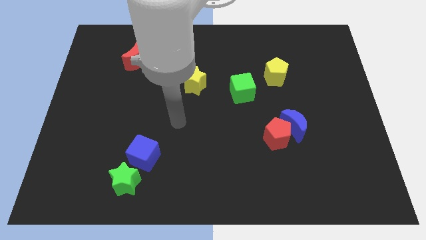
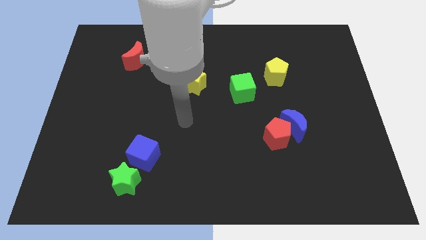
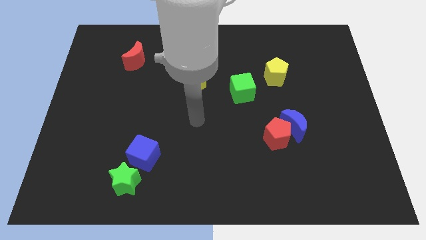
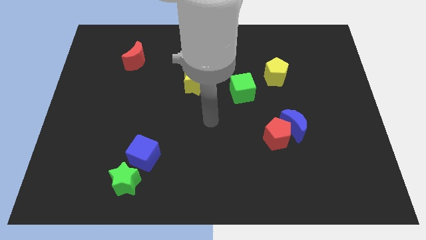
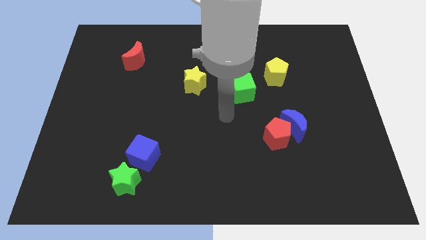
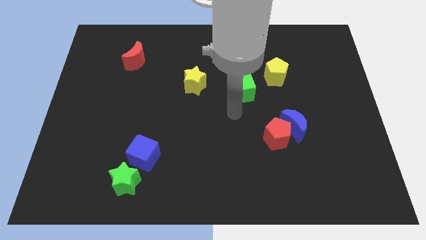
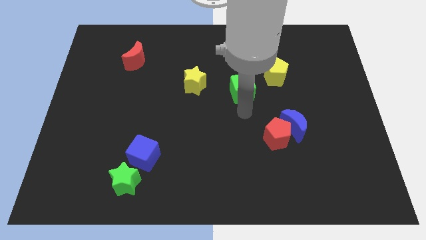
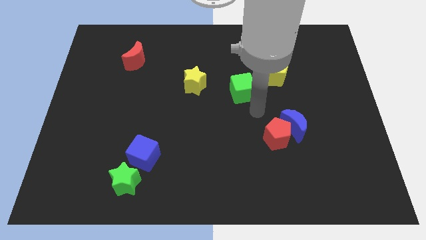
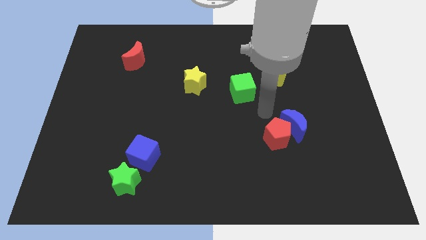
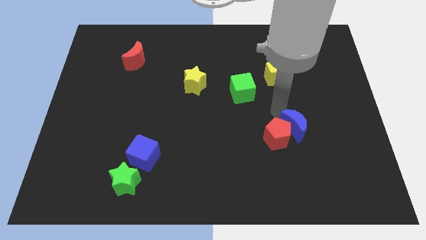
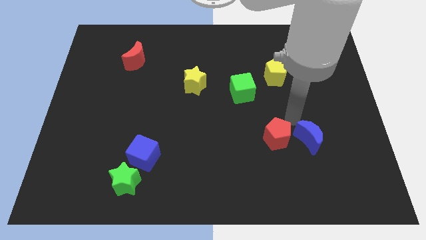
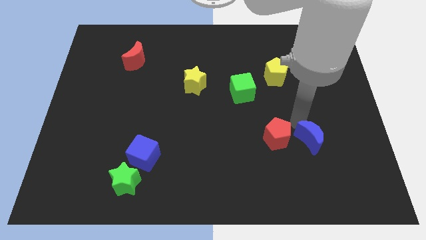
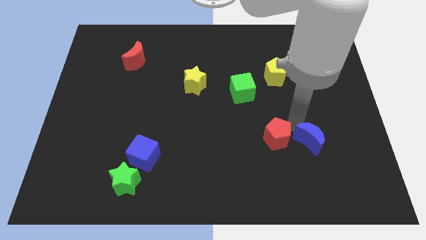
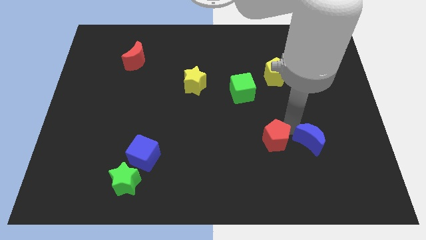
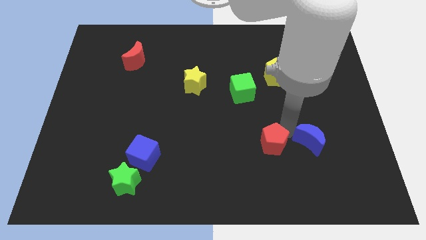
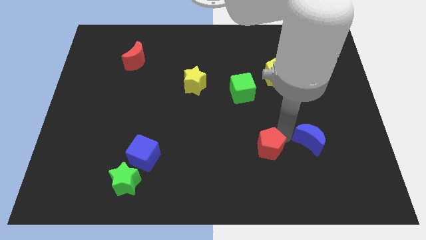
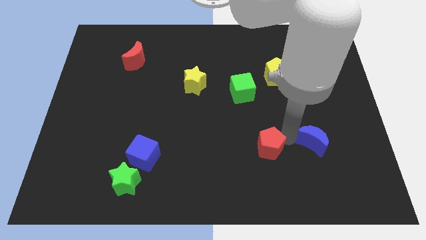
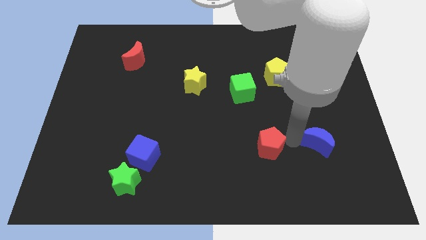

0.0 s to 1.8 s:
separate the red pentagon from the blue moon

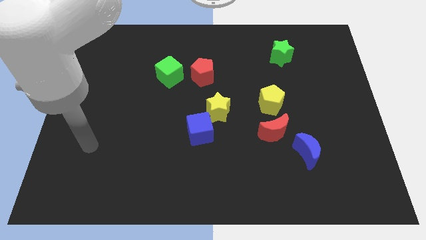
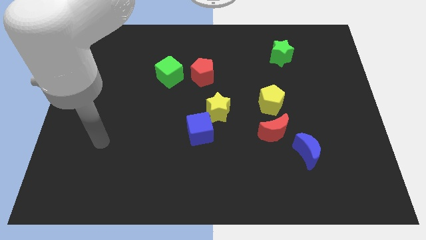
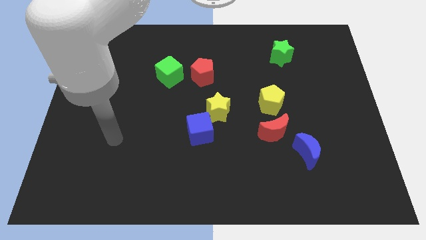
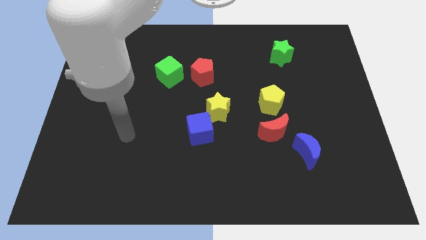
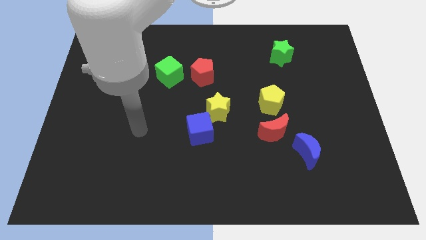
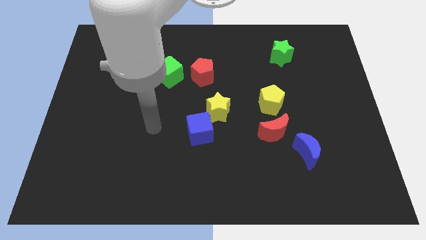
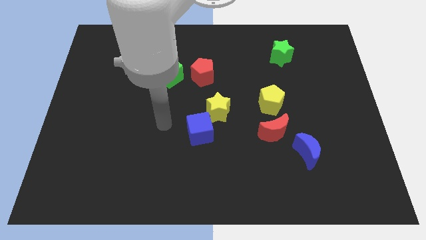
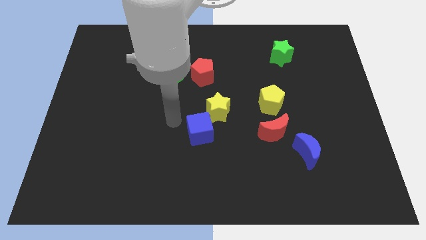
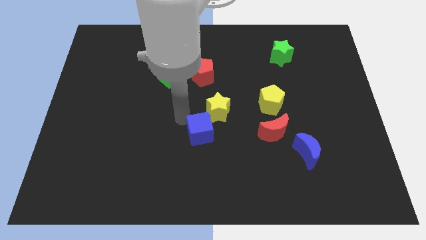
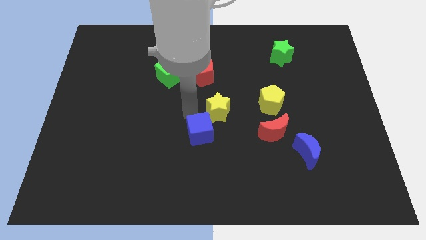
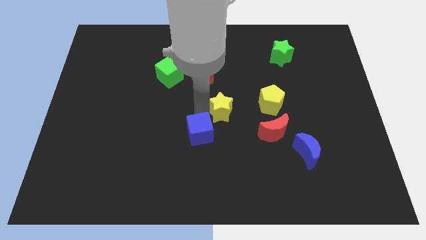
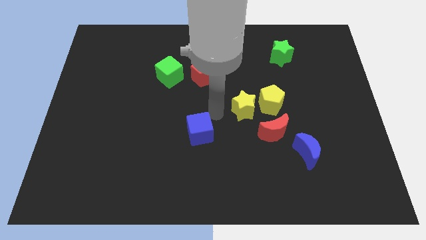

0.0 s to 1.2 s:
separate the blue cube from the yellow star

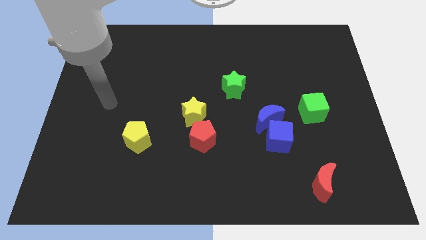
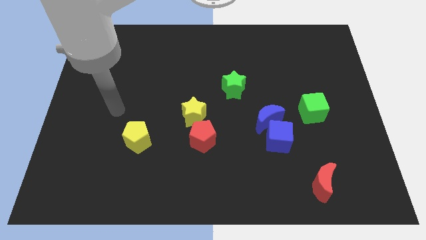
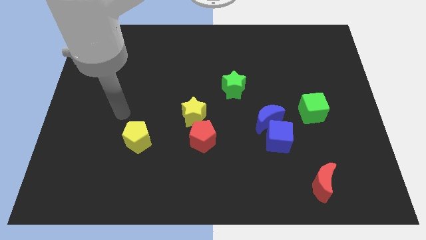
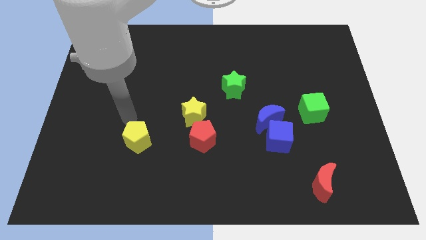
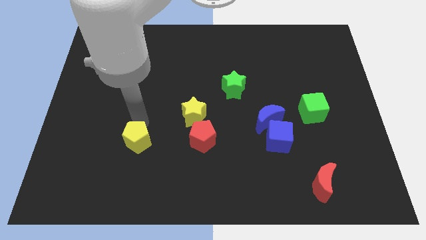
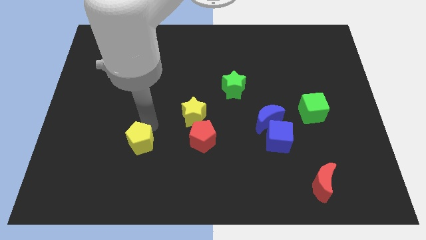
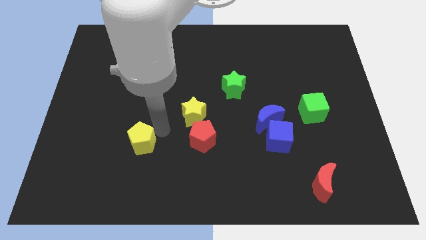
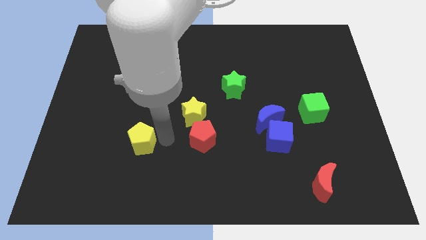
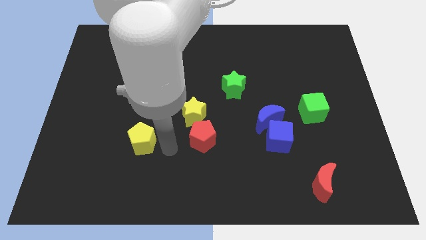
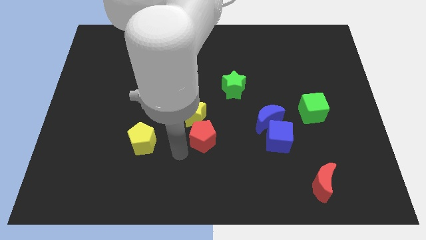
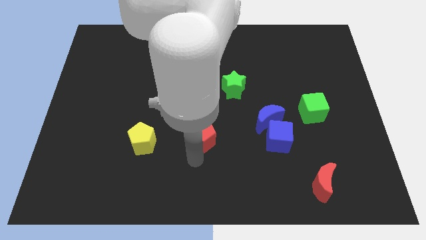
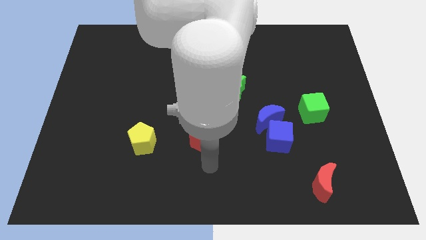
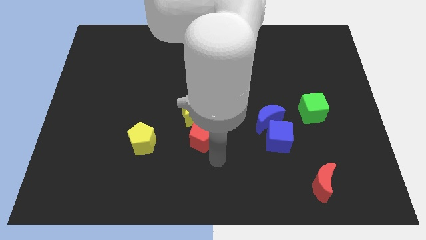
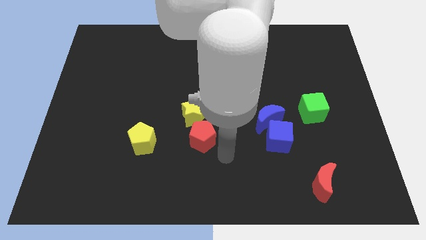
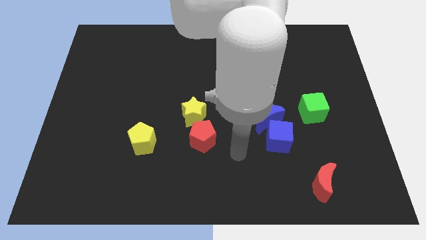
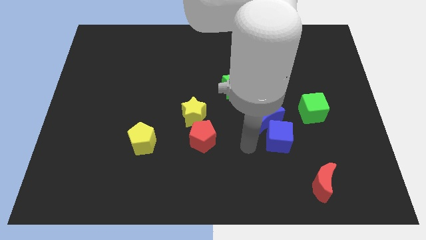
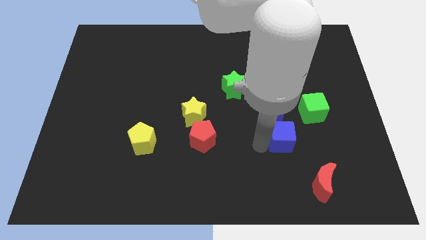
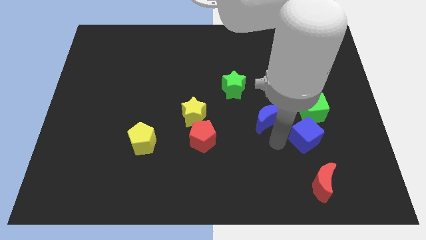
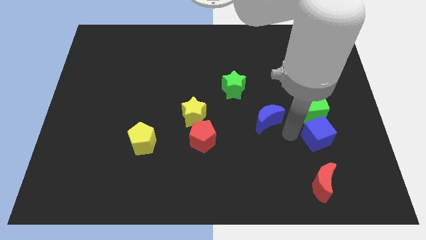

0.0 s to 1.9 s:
move the blue moon away from the blue cube

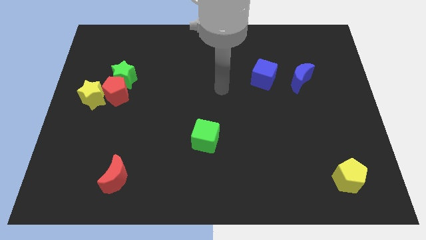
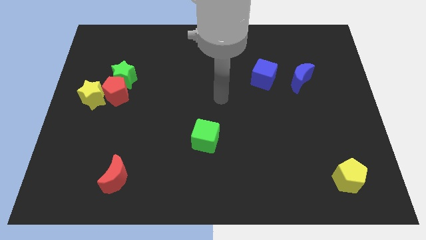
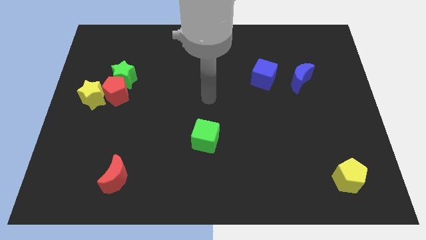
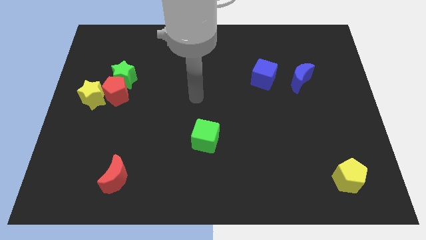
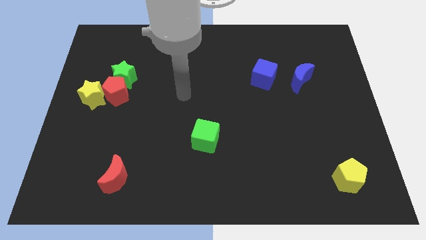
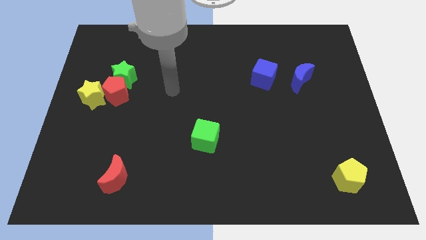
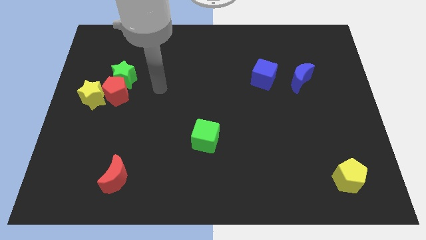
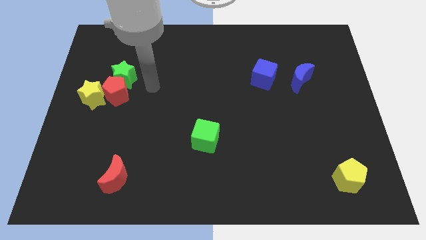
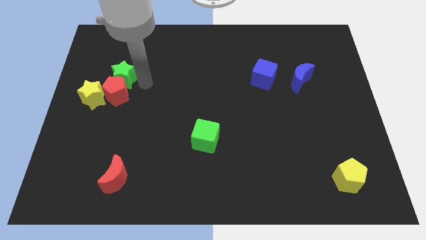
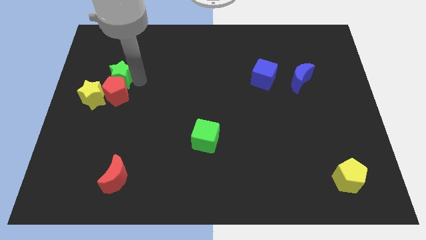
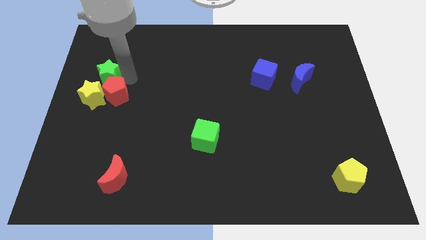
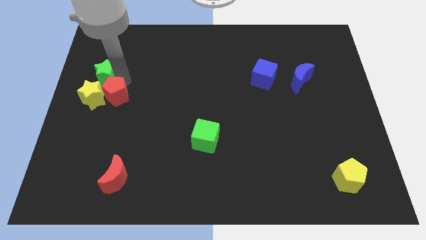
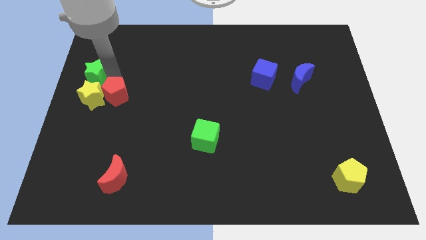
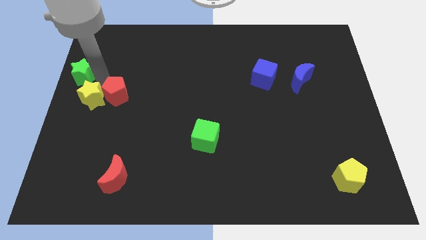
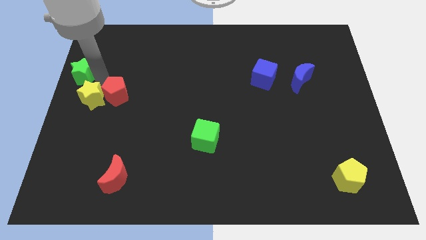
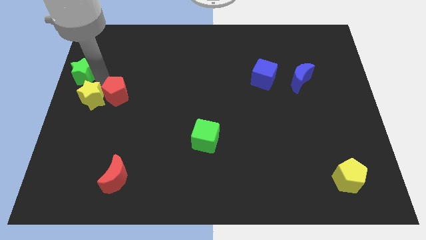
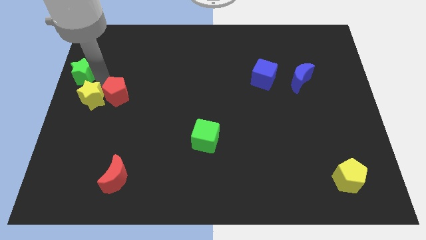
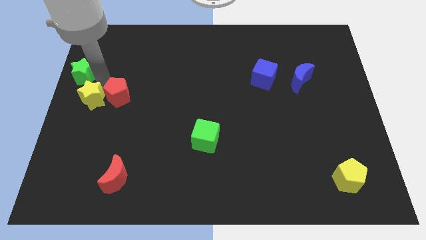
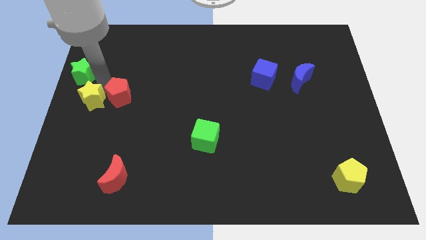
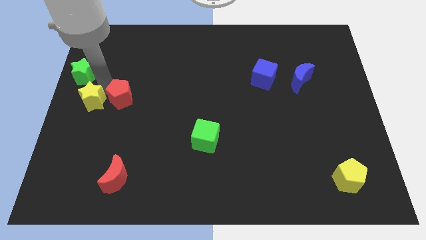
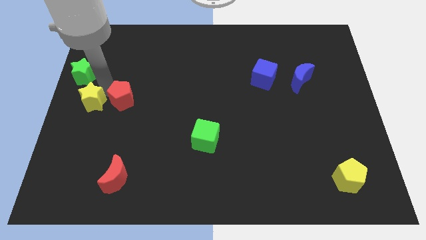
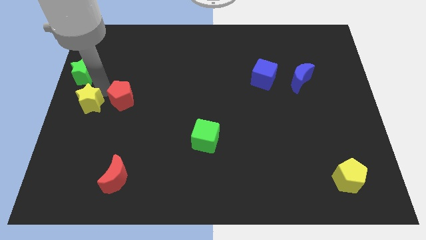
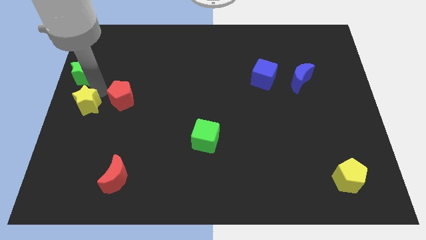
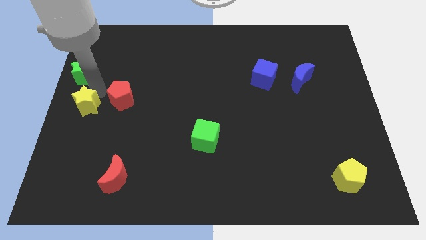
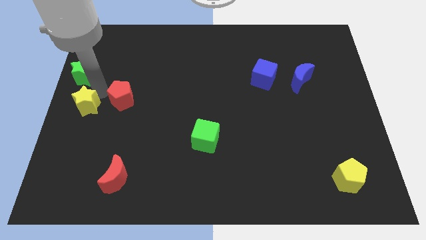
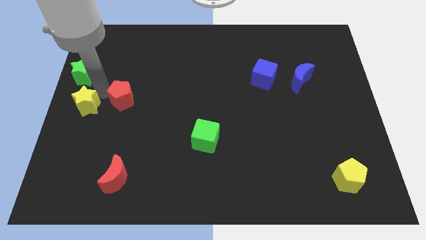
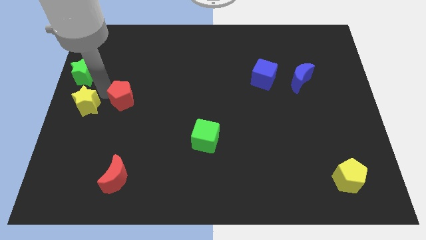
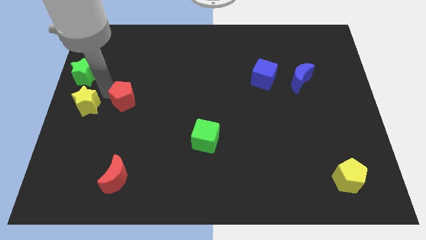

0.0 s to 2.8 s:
pull the red pentagon apart from the green star and yellow star

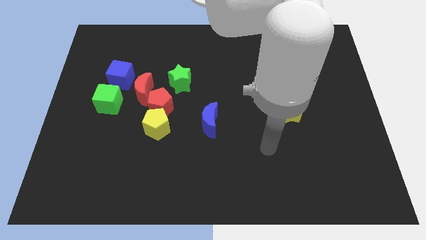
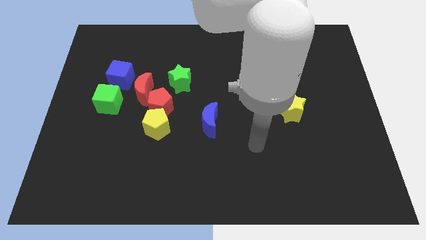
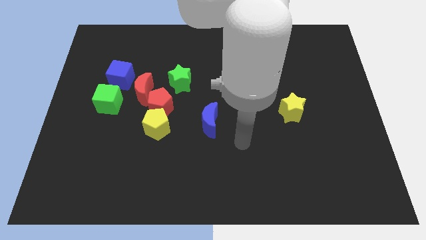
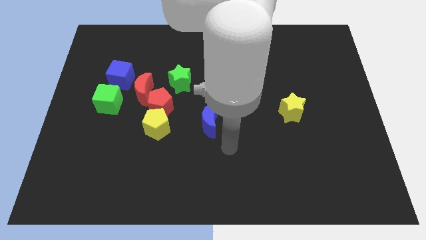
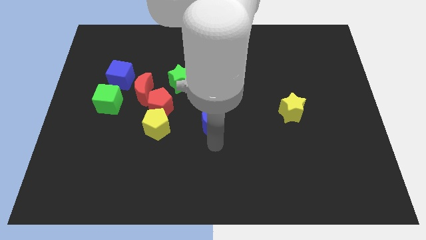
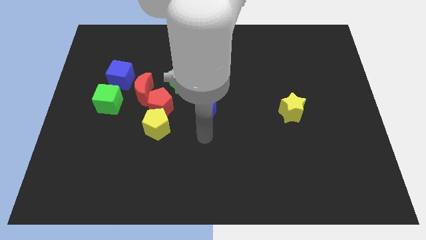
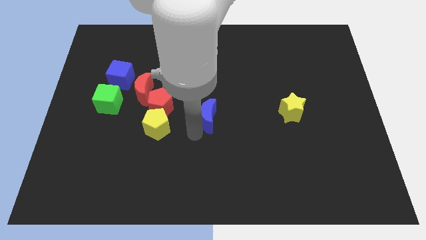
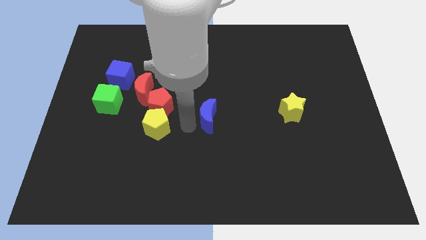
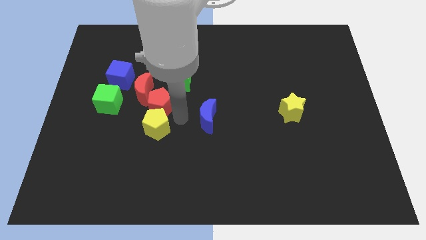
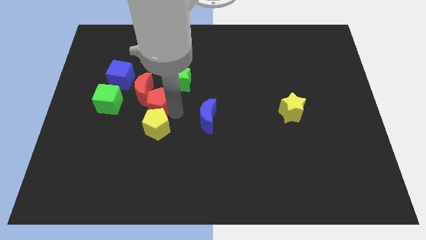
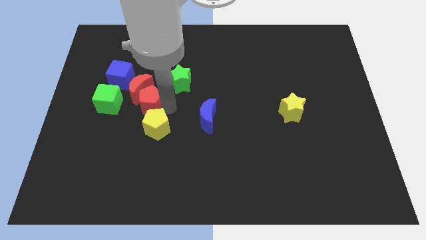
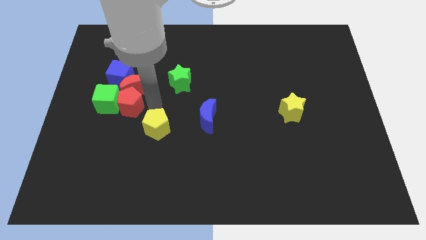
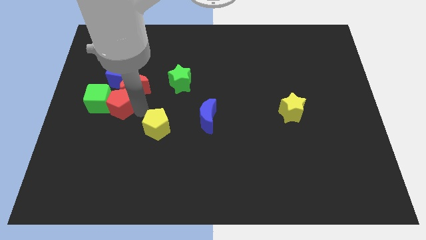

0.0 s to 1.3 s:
separate the yellow pentagon from the red pentagon

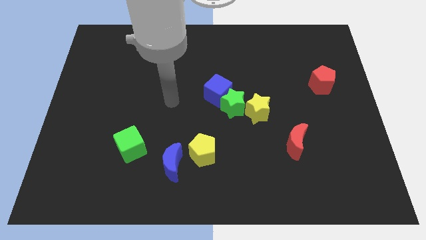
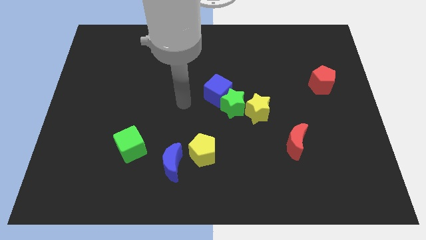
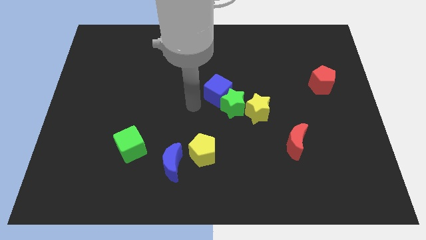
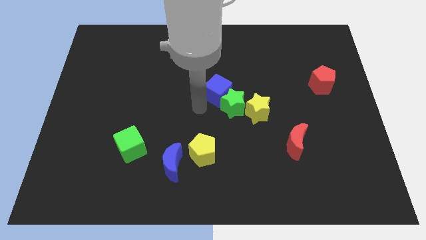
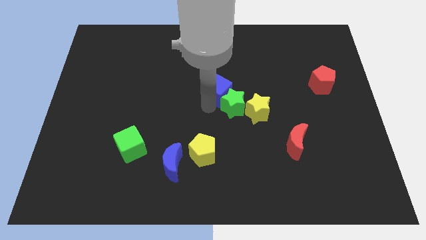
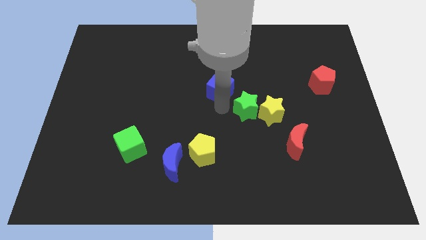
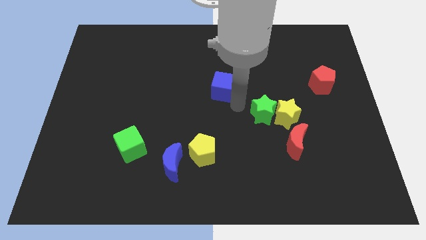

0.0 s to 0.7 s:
move the blue cube away from the green star
